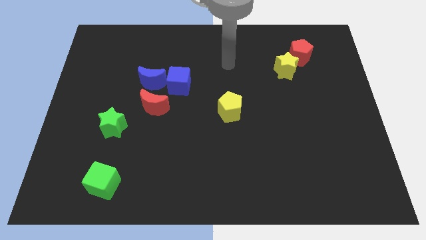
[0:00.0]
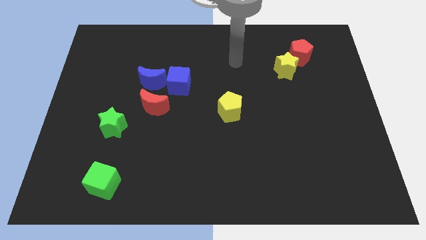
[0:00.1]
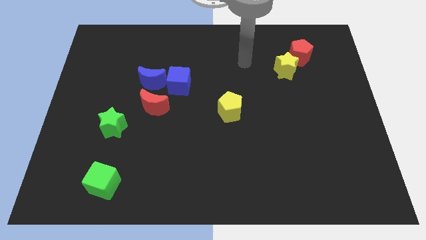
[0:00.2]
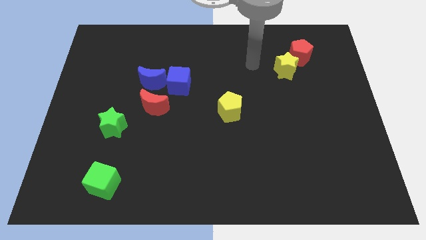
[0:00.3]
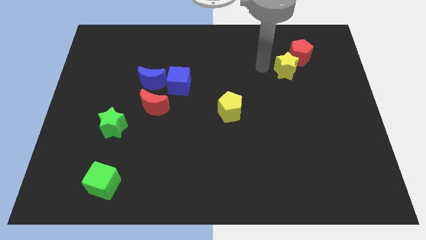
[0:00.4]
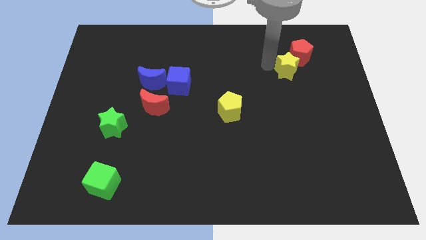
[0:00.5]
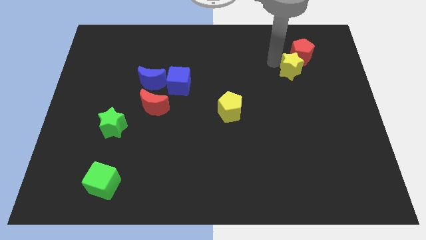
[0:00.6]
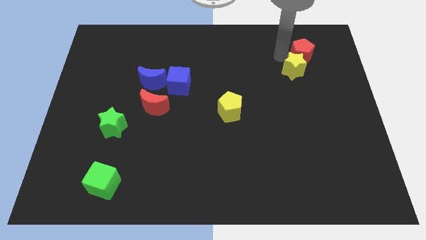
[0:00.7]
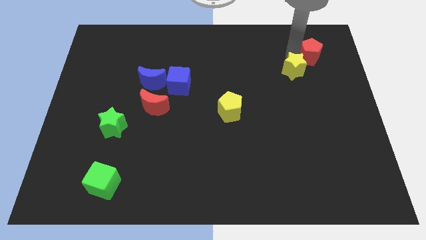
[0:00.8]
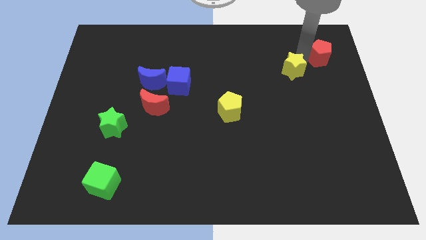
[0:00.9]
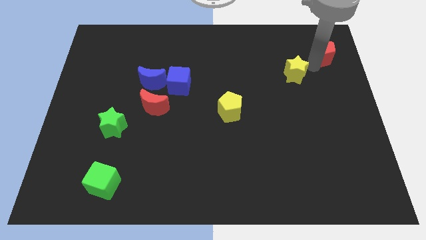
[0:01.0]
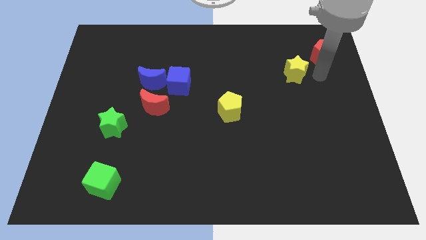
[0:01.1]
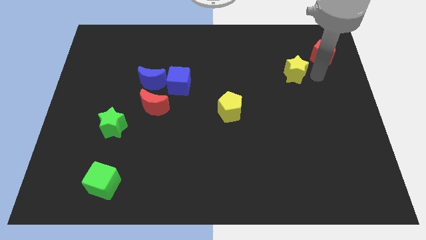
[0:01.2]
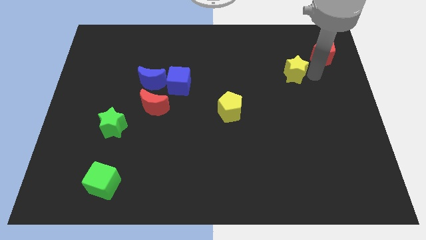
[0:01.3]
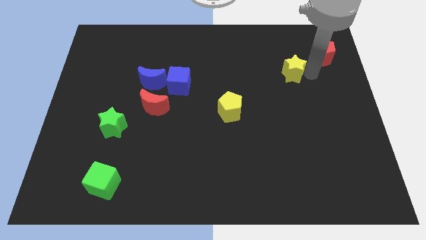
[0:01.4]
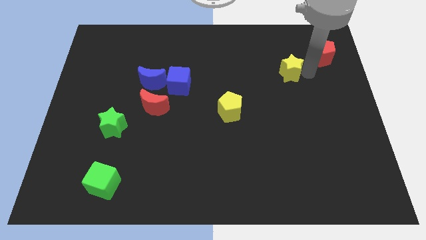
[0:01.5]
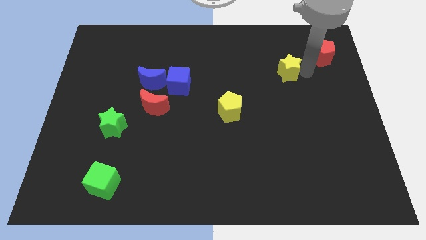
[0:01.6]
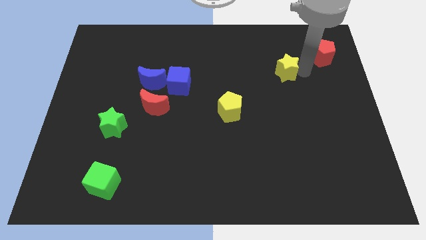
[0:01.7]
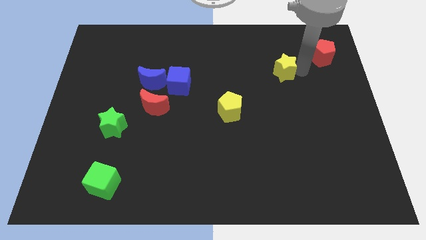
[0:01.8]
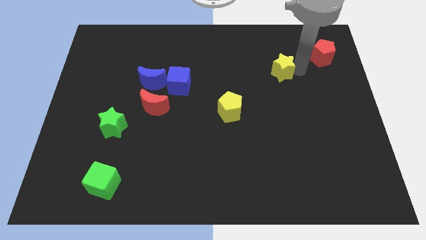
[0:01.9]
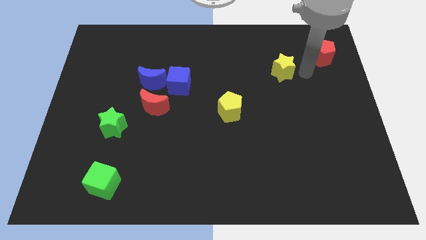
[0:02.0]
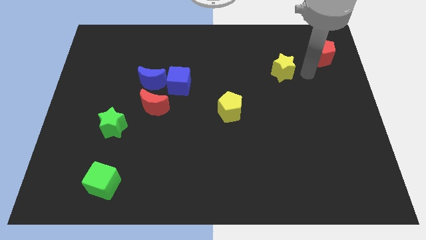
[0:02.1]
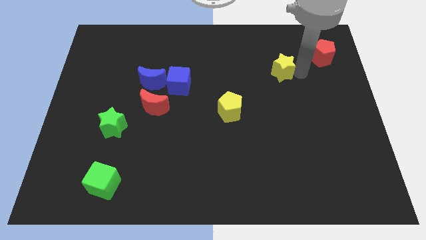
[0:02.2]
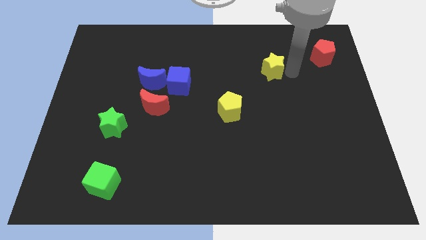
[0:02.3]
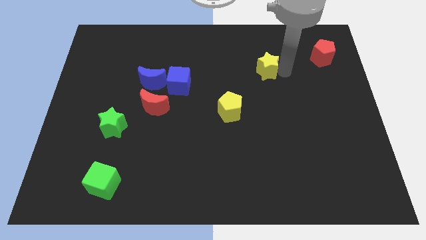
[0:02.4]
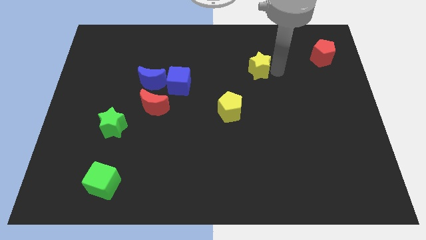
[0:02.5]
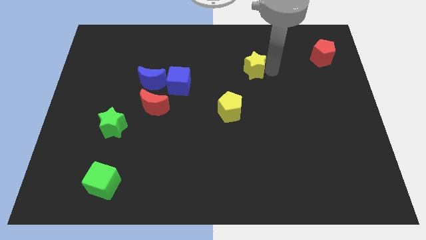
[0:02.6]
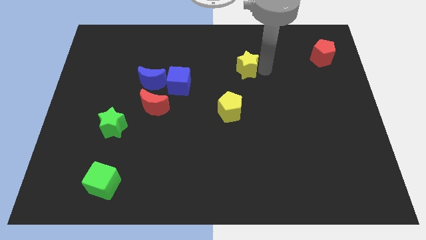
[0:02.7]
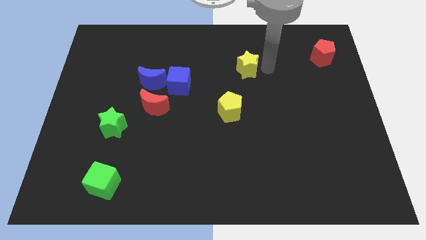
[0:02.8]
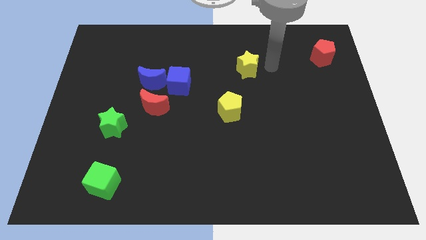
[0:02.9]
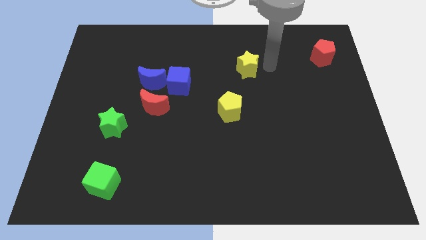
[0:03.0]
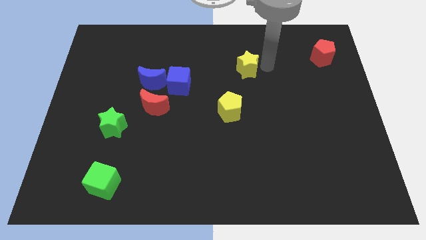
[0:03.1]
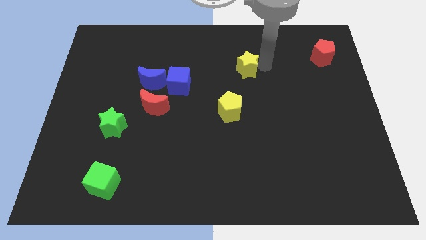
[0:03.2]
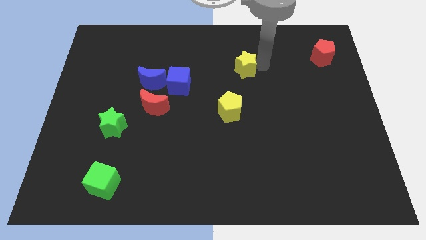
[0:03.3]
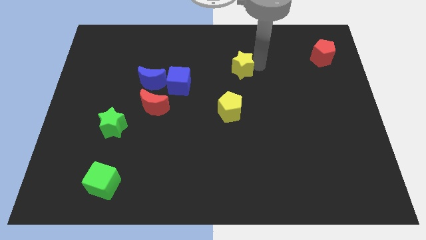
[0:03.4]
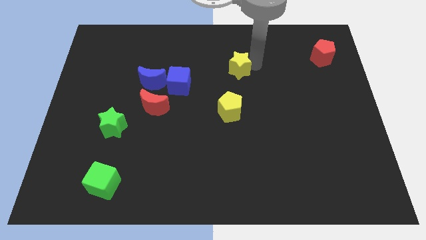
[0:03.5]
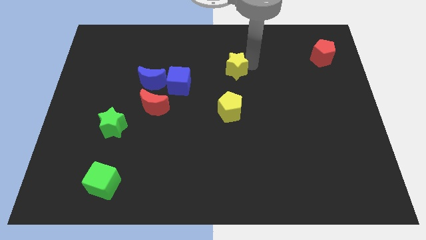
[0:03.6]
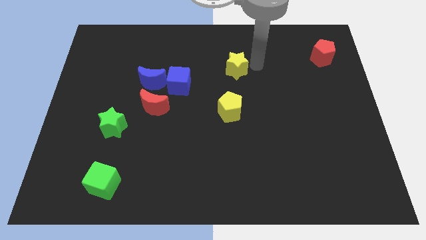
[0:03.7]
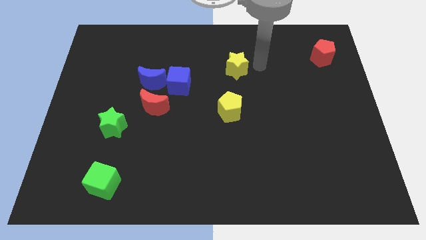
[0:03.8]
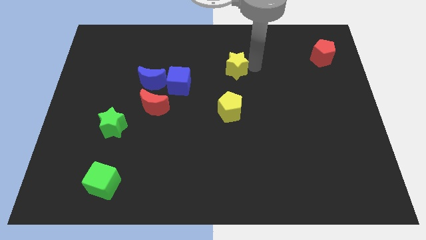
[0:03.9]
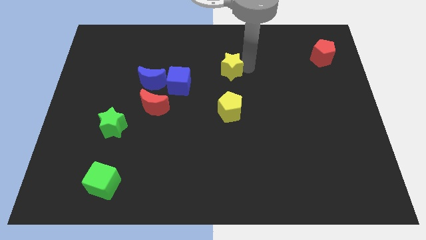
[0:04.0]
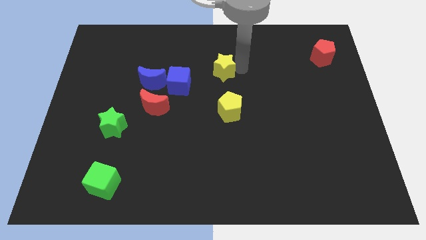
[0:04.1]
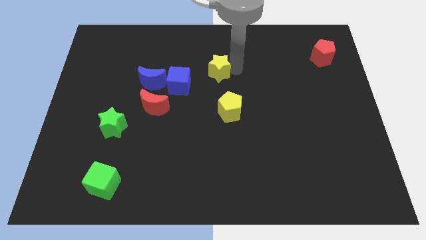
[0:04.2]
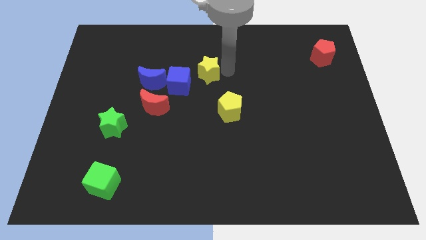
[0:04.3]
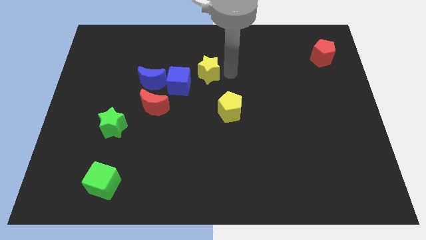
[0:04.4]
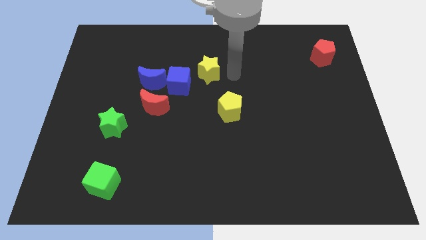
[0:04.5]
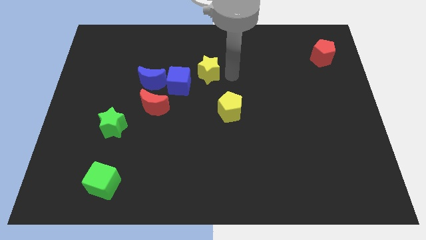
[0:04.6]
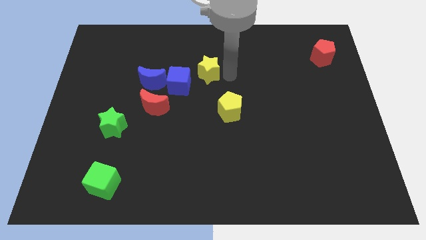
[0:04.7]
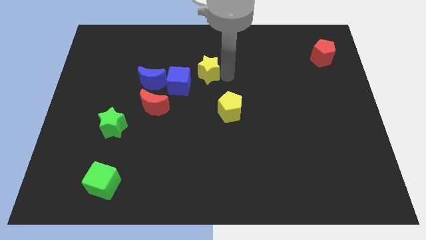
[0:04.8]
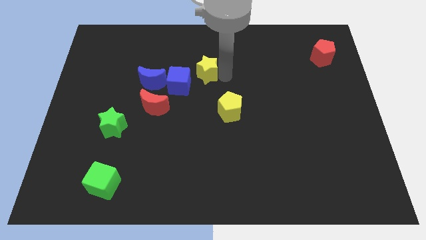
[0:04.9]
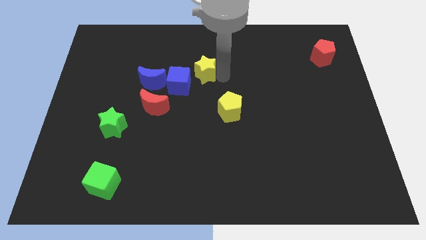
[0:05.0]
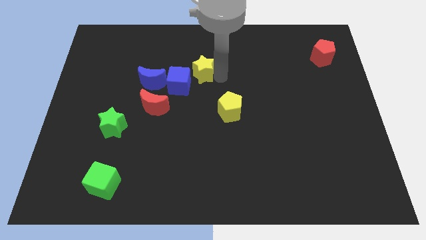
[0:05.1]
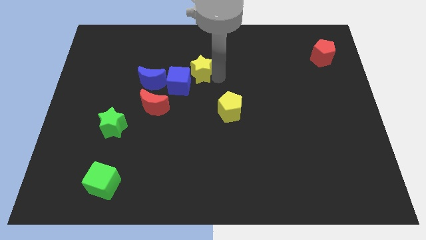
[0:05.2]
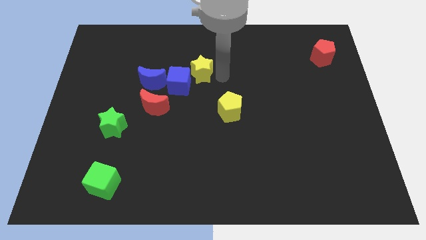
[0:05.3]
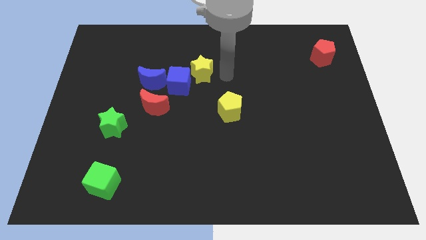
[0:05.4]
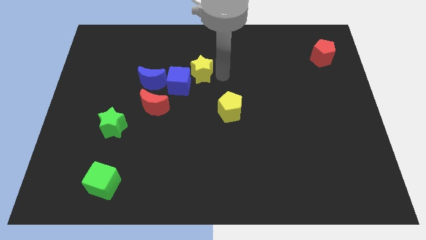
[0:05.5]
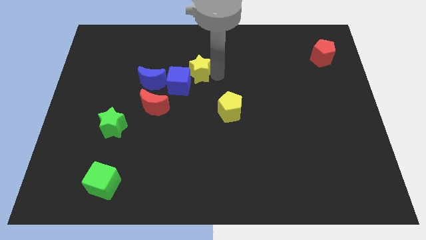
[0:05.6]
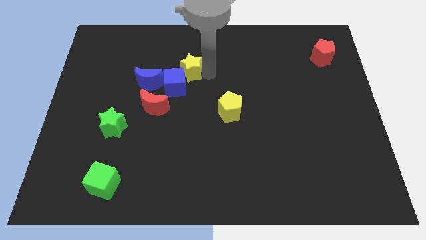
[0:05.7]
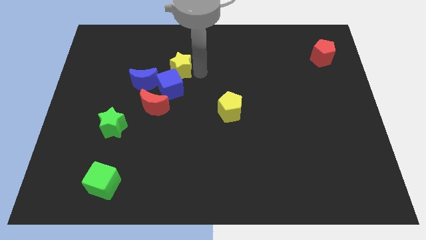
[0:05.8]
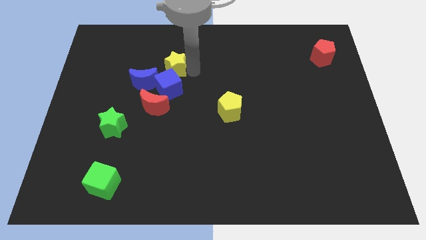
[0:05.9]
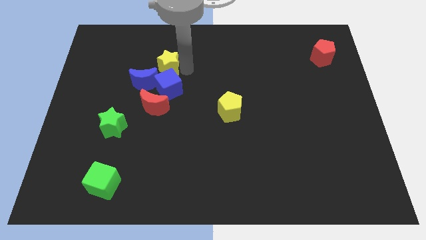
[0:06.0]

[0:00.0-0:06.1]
put the yellow star to the top left side of the blue cube

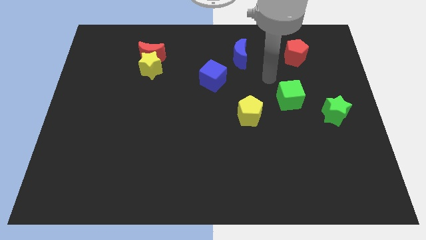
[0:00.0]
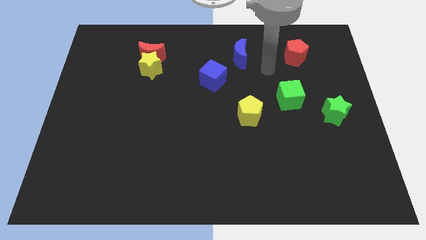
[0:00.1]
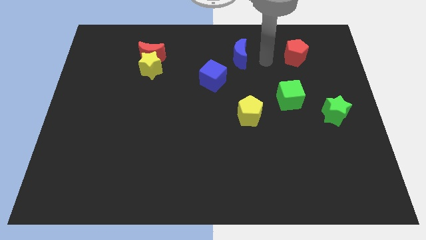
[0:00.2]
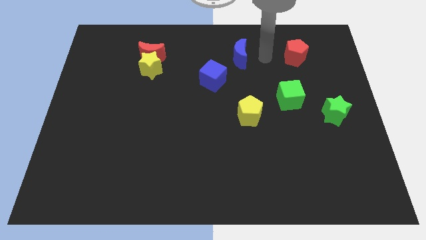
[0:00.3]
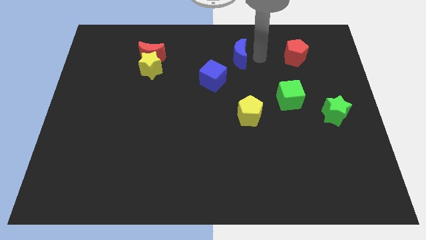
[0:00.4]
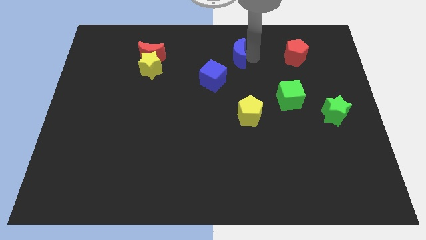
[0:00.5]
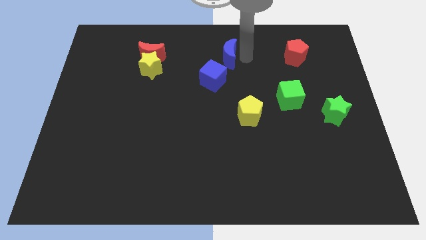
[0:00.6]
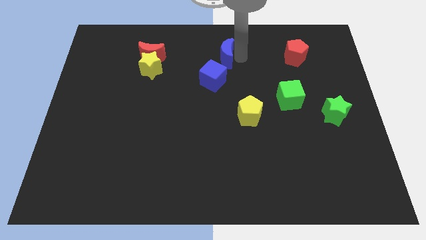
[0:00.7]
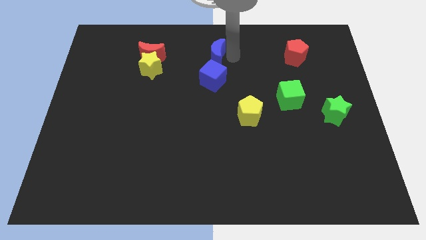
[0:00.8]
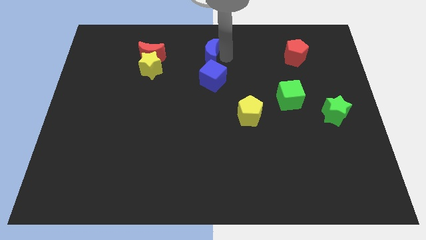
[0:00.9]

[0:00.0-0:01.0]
slide the blue moon just right of the red moon

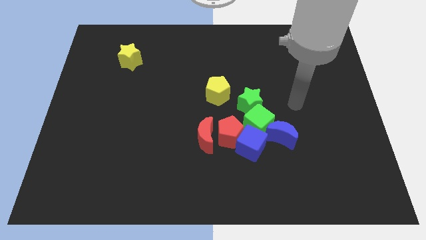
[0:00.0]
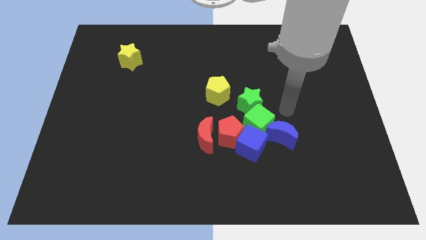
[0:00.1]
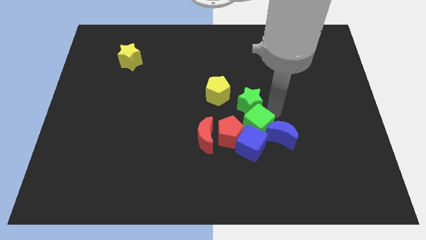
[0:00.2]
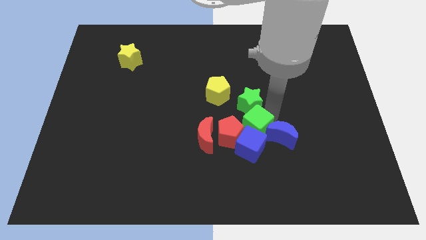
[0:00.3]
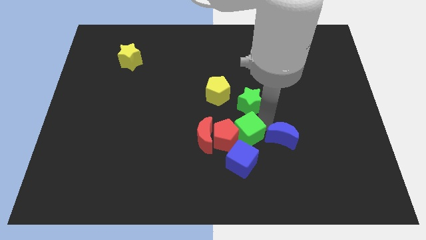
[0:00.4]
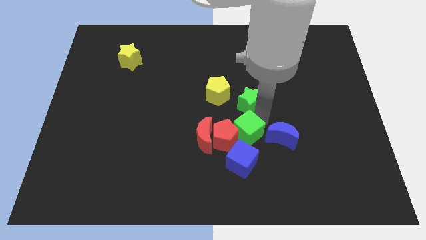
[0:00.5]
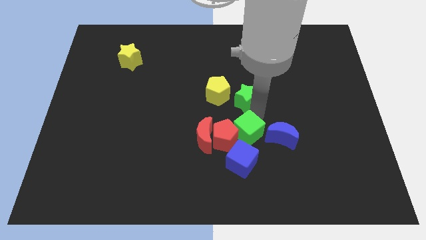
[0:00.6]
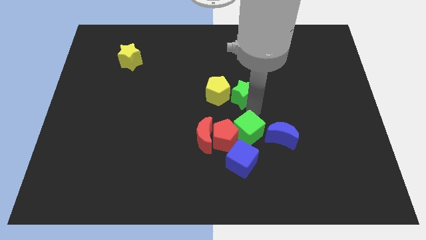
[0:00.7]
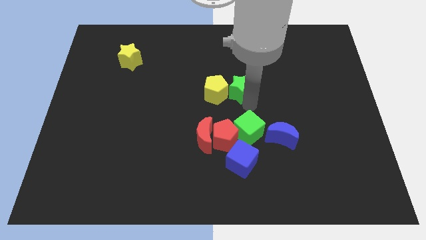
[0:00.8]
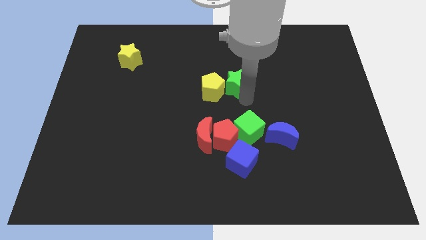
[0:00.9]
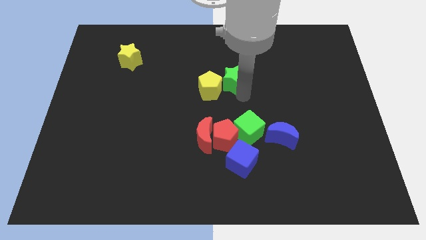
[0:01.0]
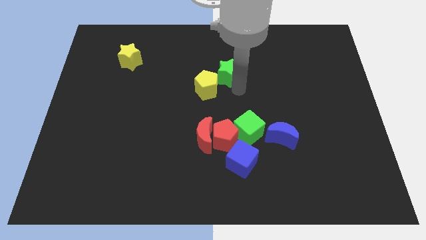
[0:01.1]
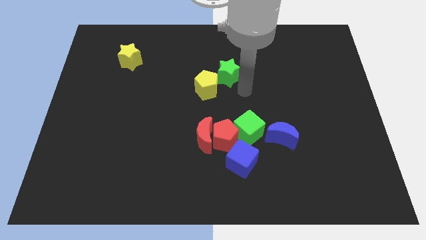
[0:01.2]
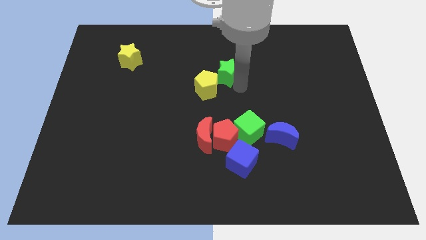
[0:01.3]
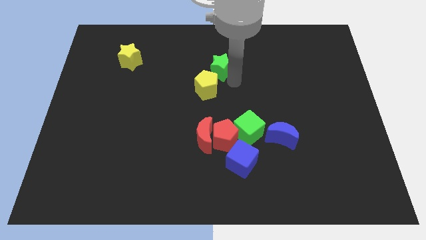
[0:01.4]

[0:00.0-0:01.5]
move the green star to the top side of the yellow pentagon
